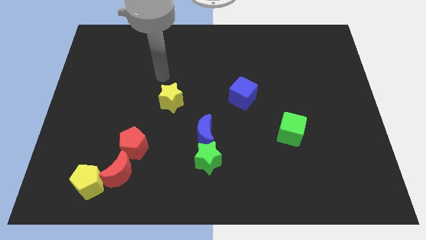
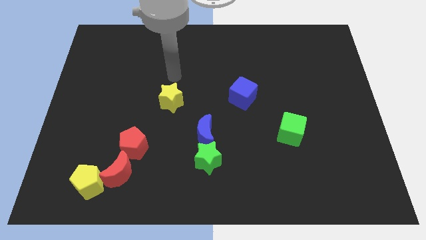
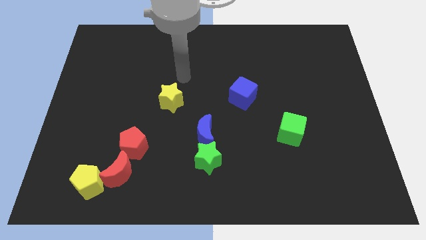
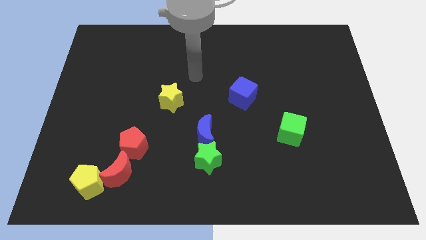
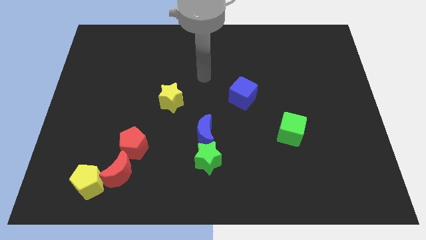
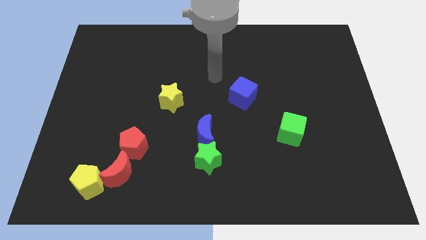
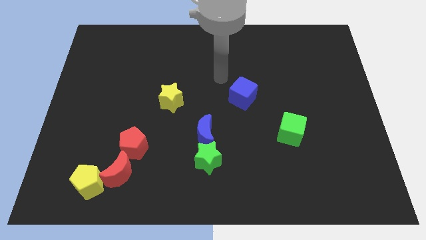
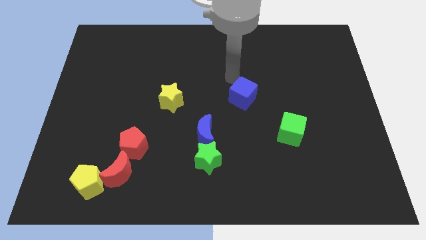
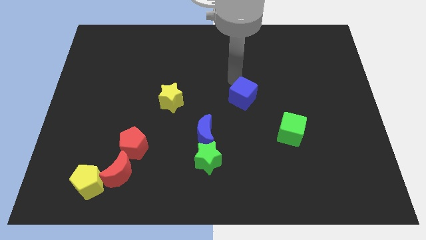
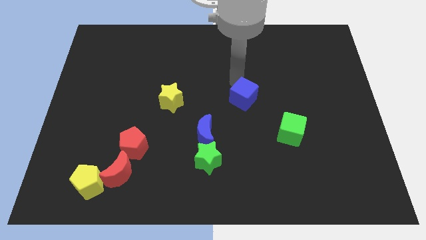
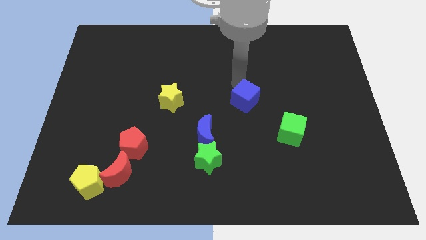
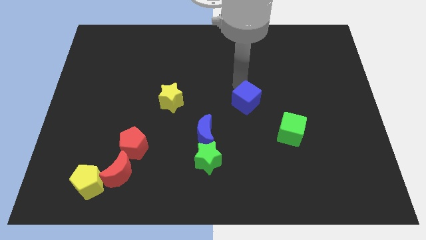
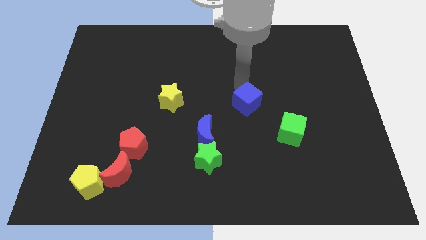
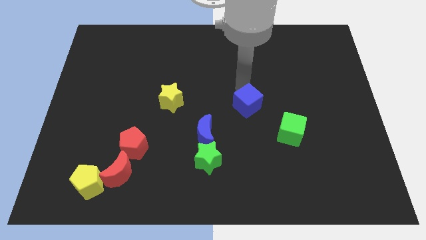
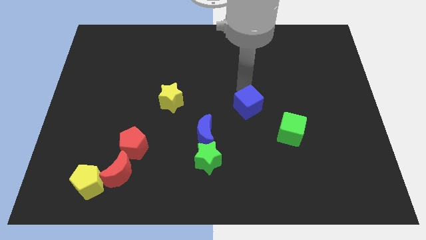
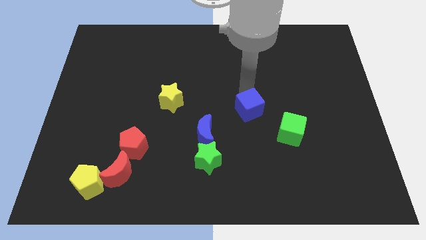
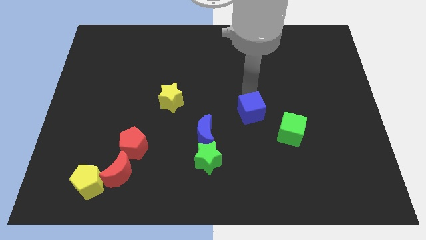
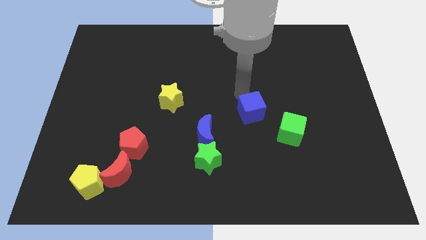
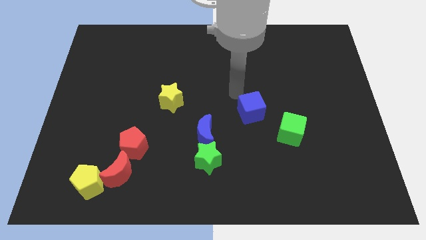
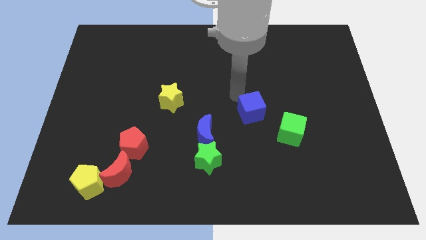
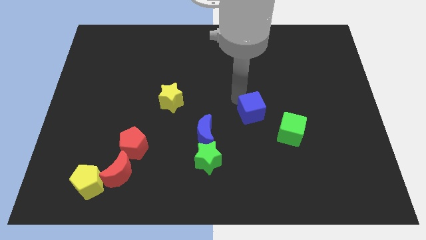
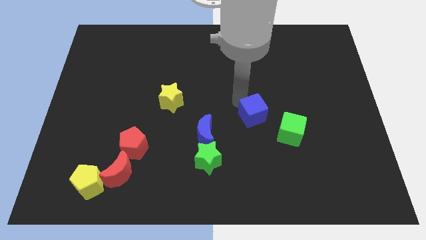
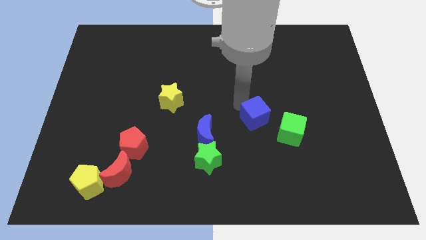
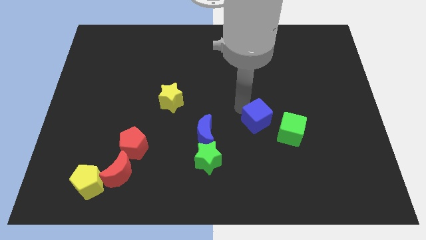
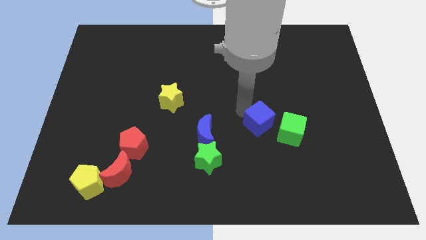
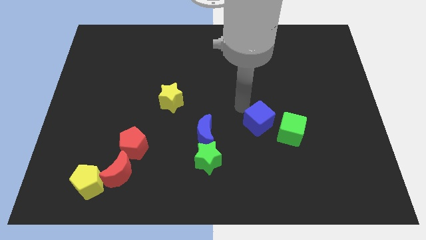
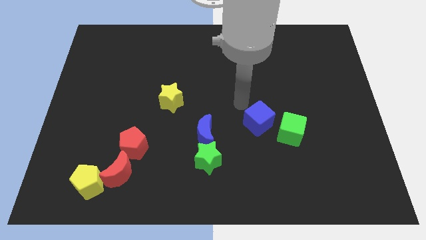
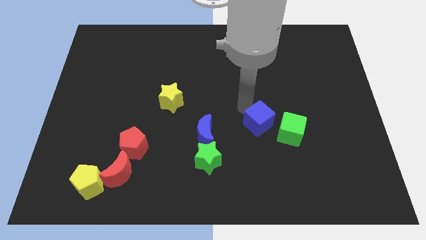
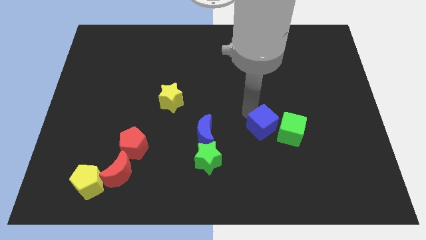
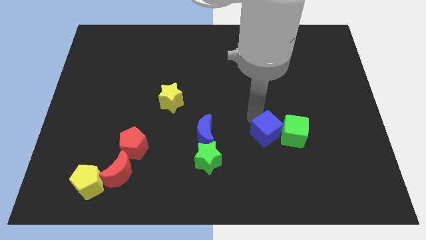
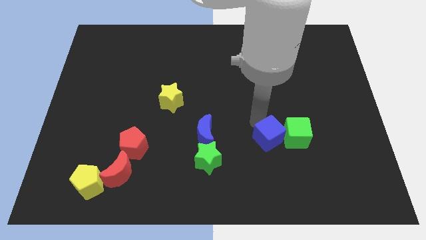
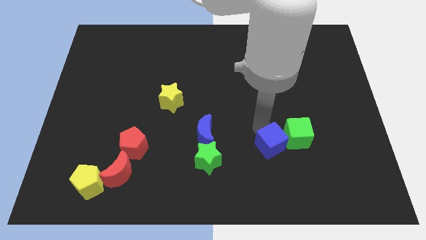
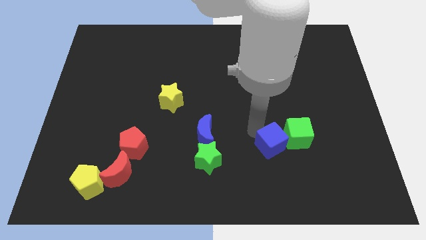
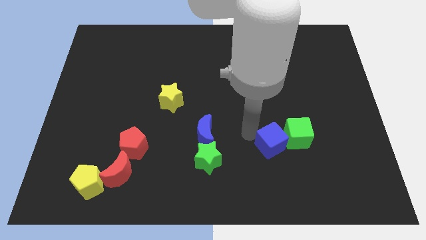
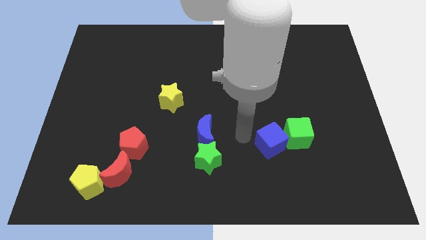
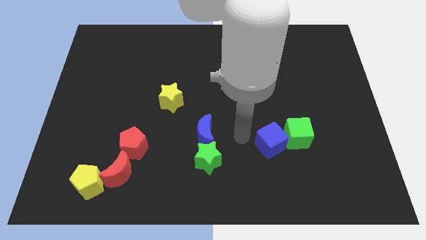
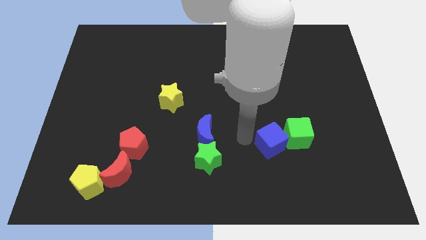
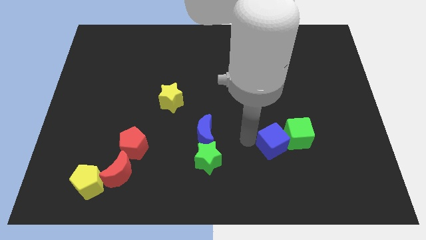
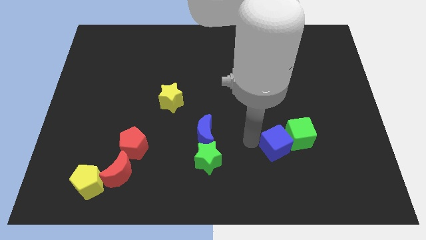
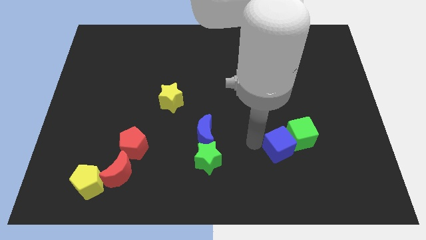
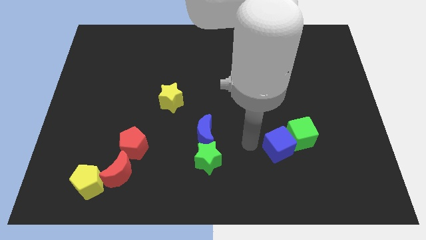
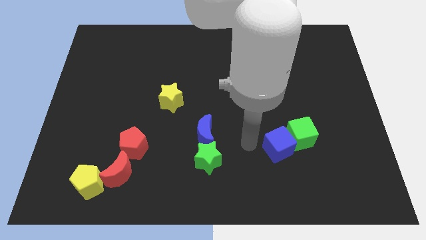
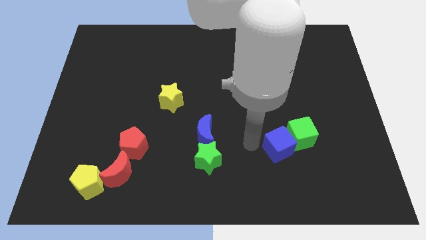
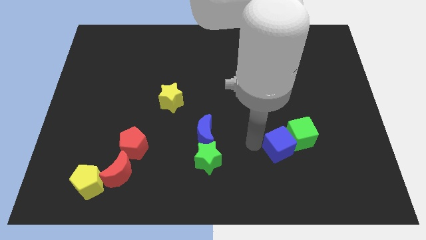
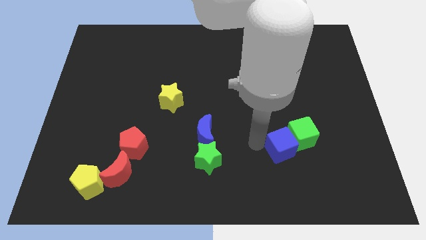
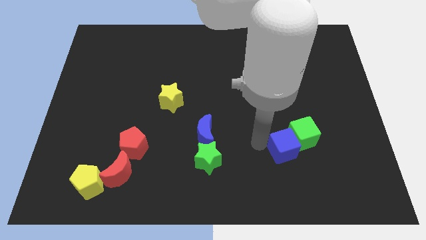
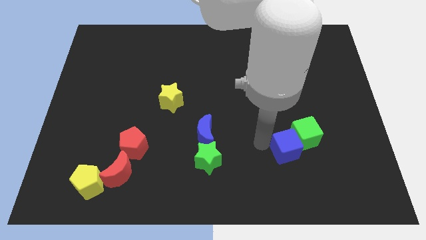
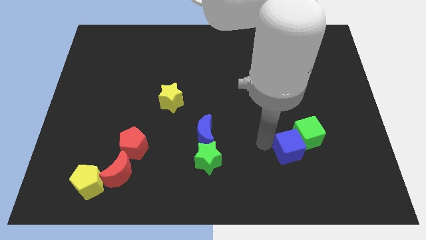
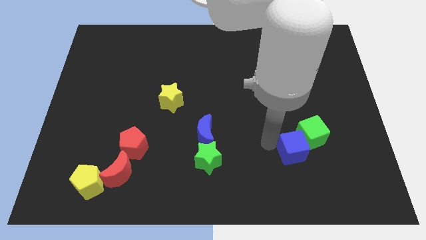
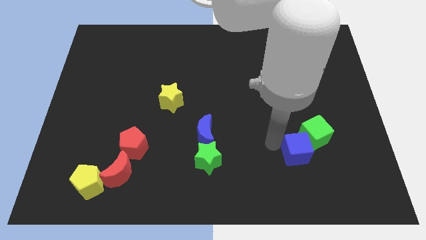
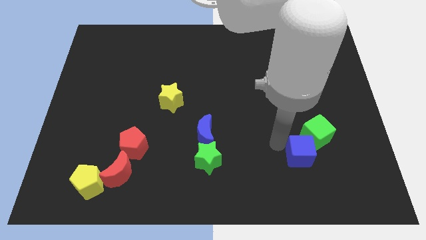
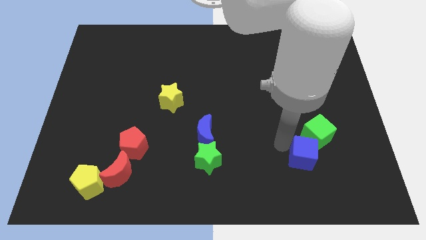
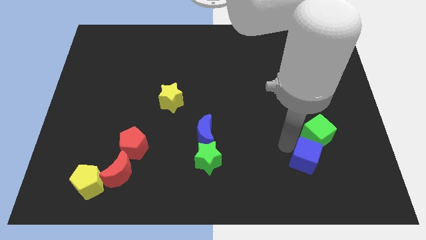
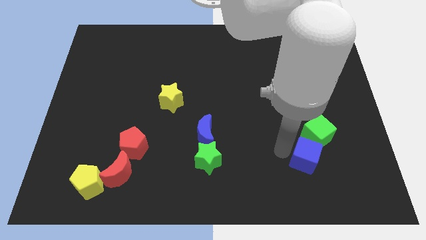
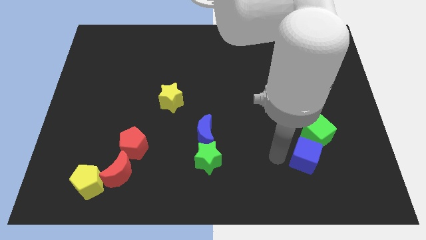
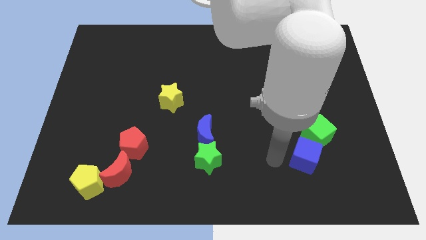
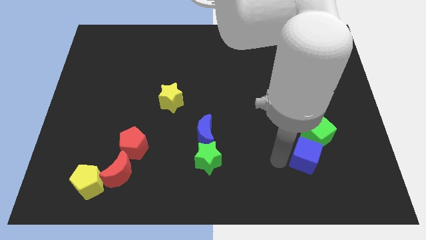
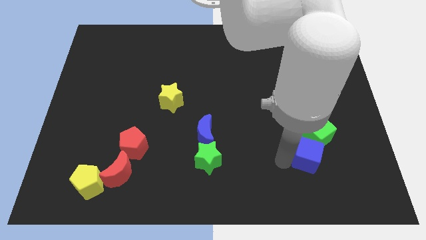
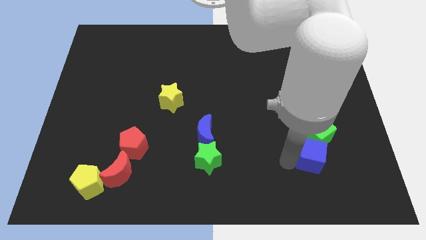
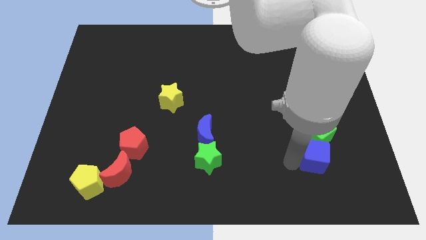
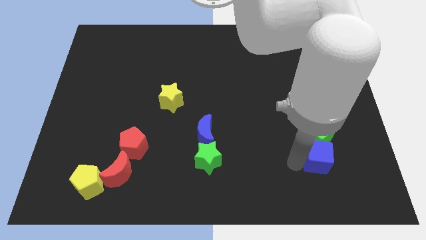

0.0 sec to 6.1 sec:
push the blue cube to the bottom right side of the green cube

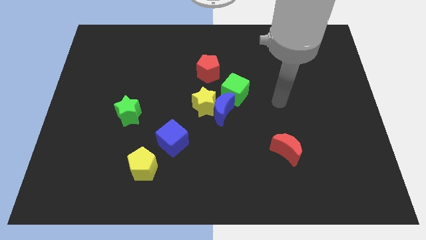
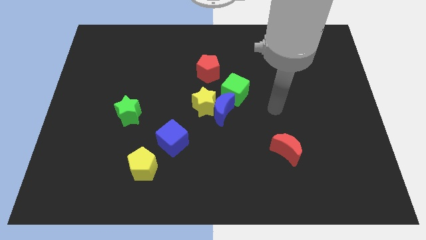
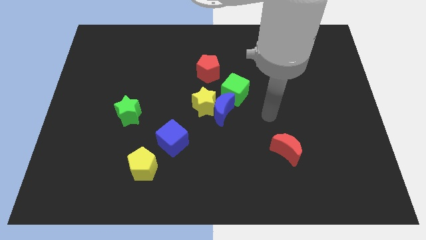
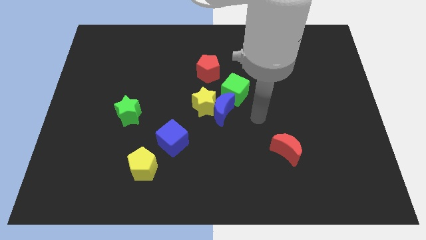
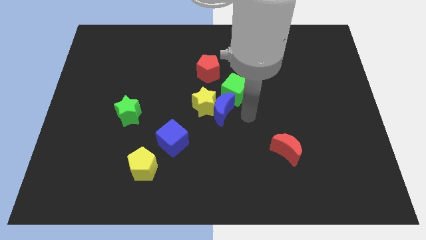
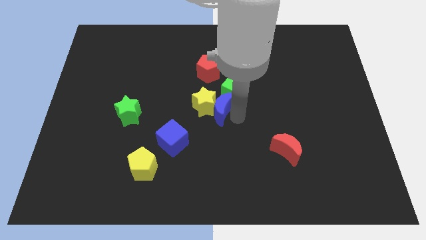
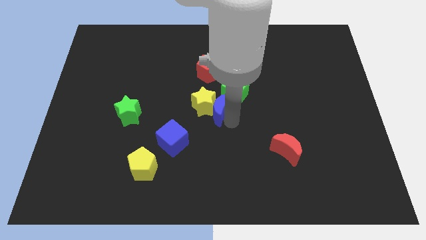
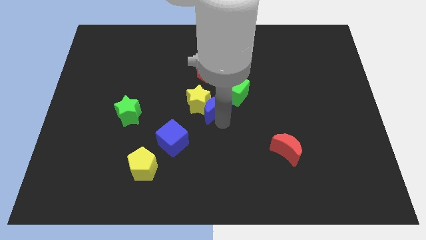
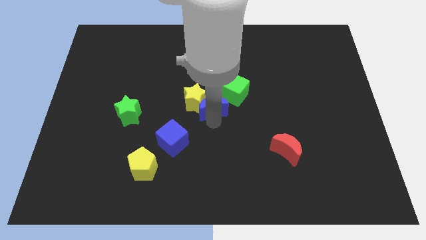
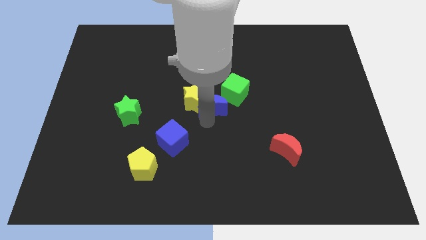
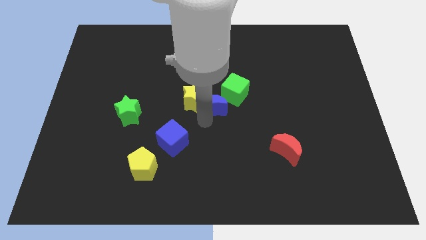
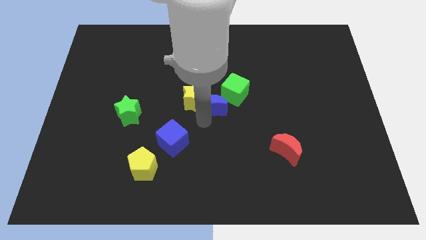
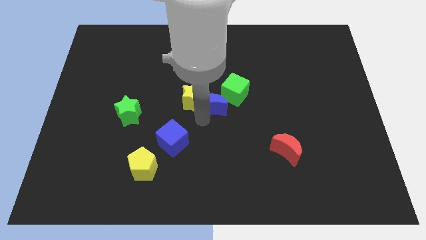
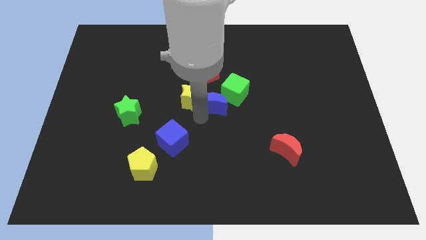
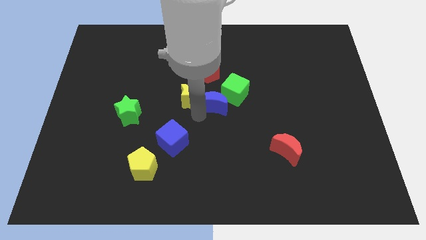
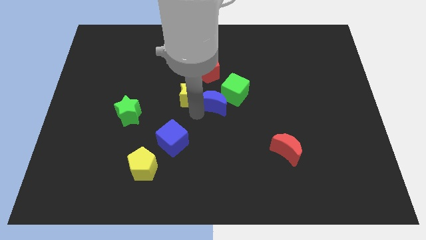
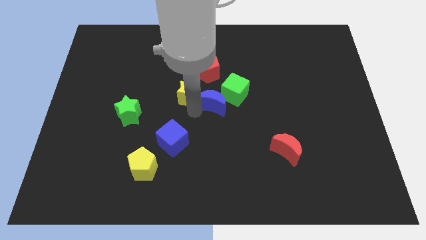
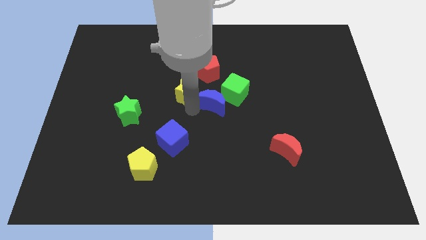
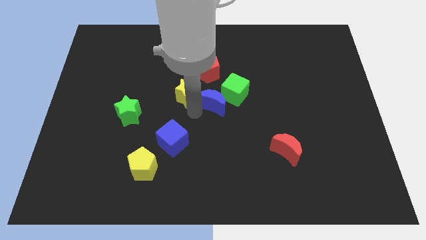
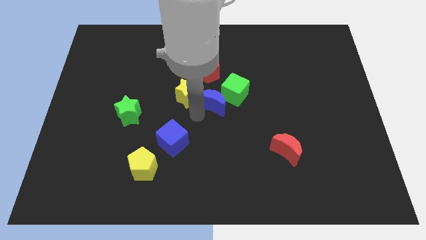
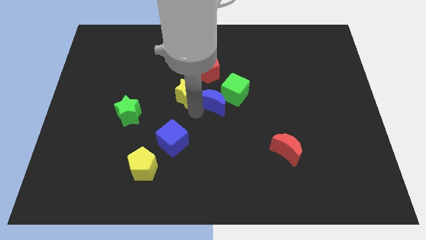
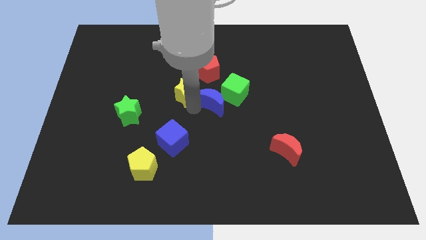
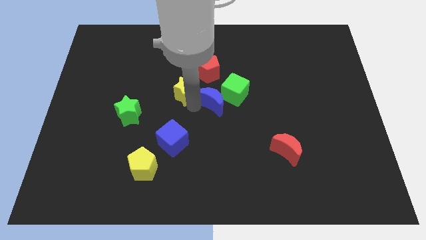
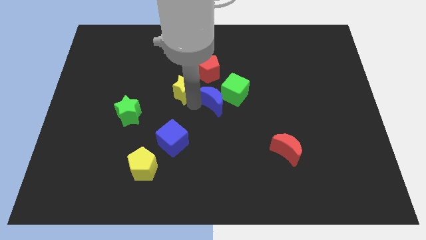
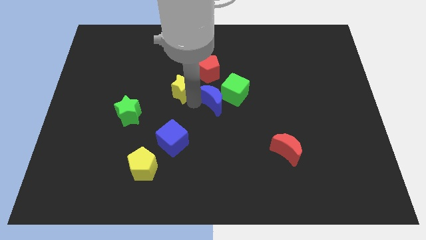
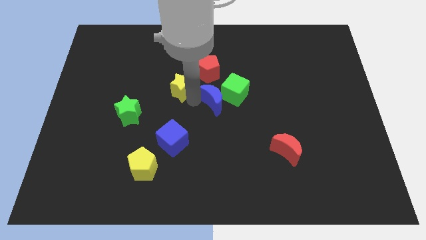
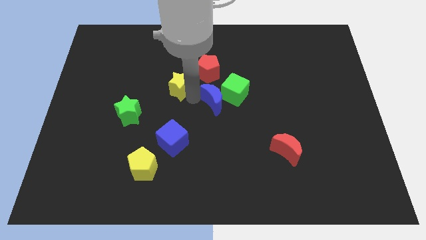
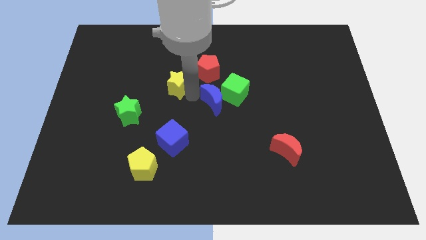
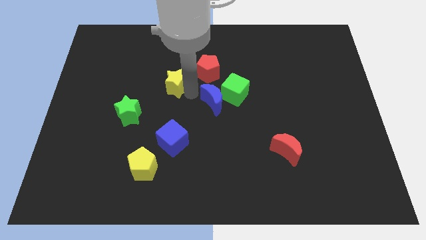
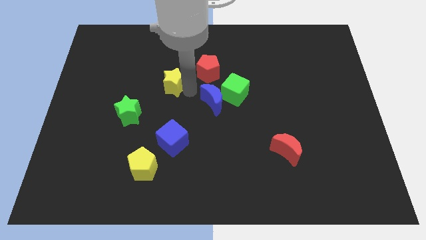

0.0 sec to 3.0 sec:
slide the yellow star to the left side of the red pentagon
